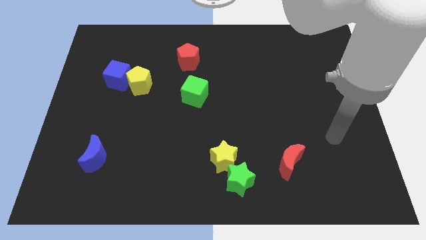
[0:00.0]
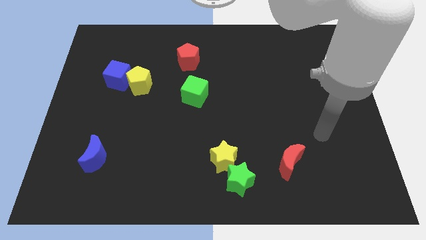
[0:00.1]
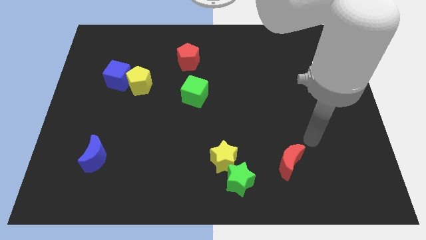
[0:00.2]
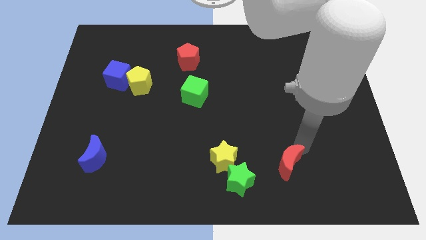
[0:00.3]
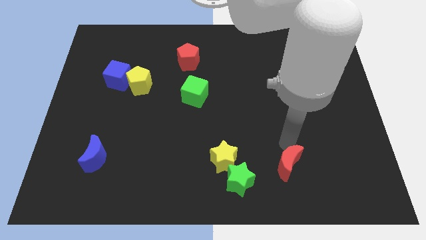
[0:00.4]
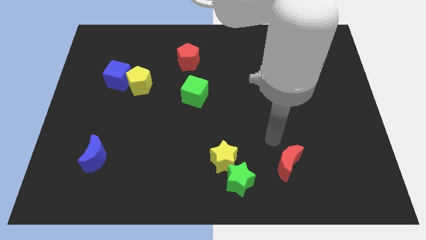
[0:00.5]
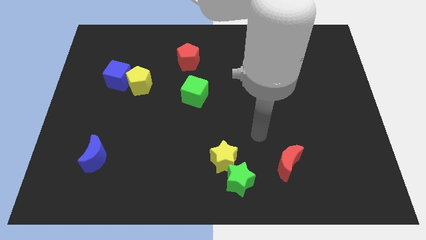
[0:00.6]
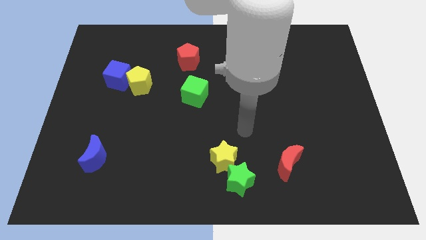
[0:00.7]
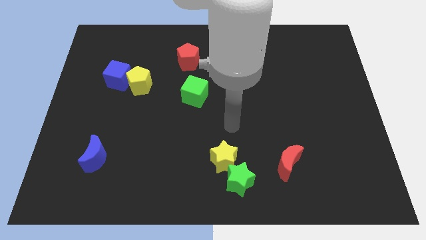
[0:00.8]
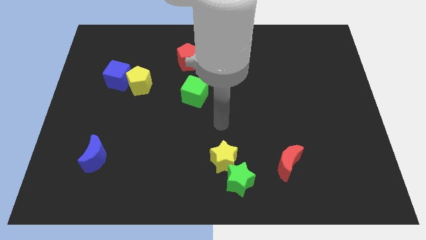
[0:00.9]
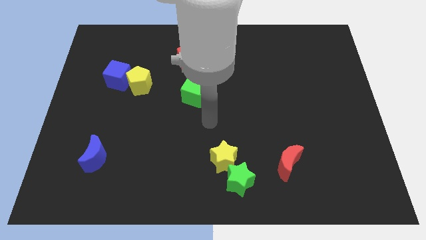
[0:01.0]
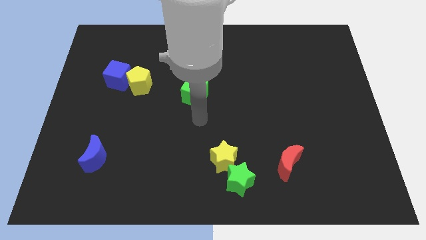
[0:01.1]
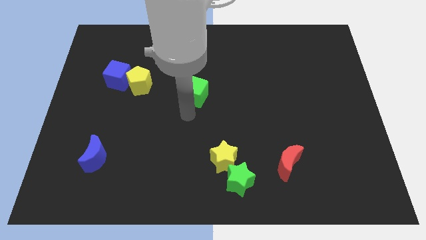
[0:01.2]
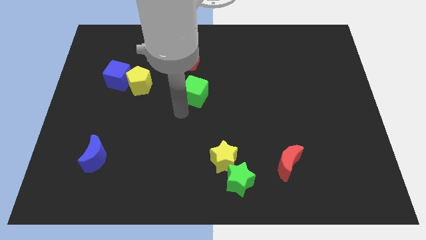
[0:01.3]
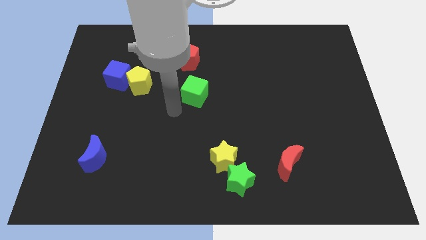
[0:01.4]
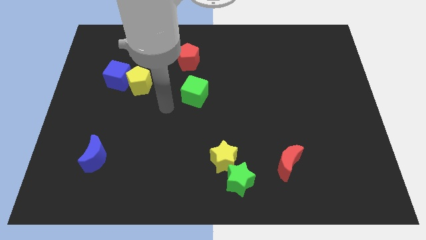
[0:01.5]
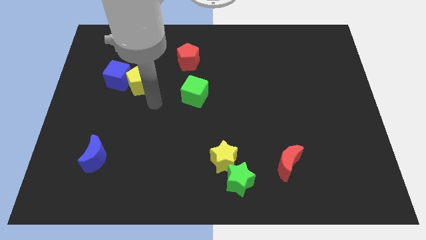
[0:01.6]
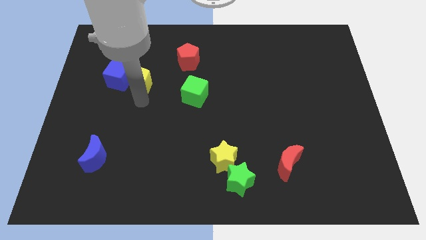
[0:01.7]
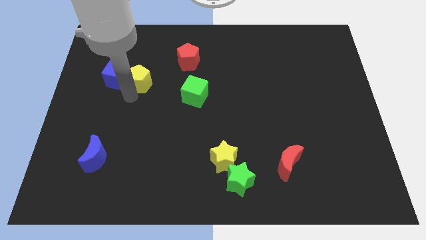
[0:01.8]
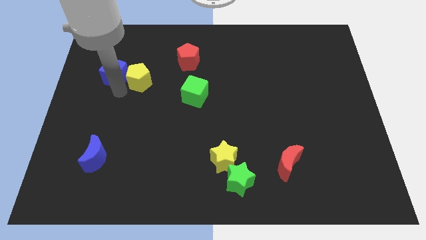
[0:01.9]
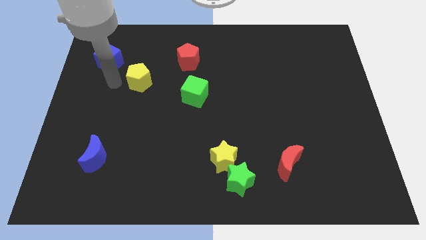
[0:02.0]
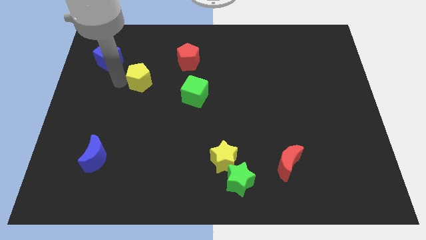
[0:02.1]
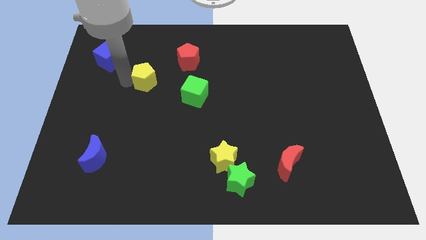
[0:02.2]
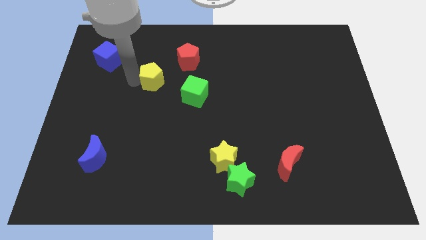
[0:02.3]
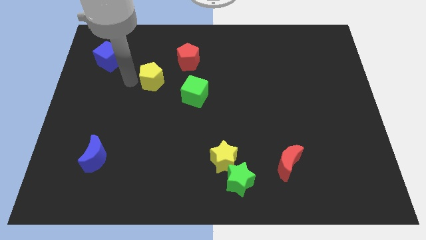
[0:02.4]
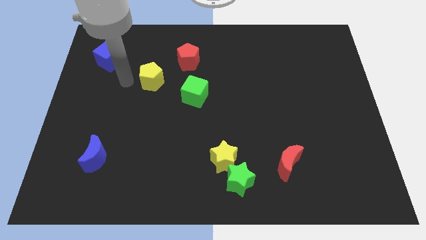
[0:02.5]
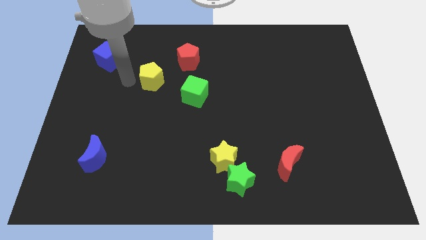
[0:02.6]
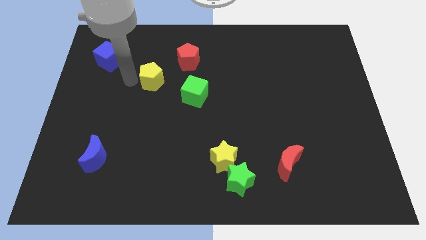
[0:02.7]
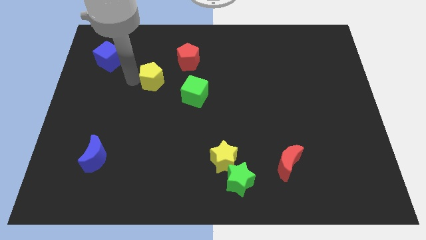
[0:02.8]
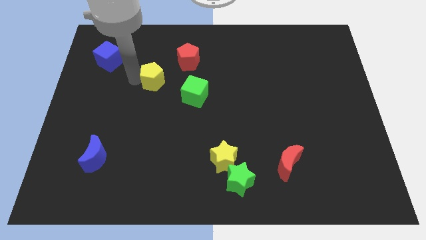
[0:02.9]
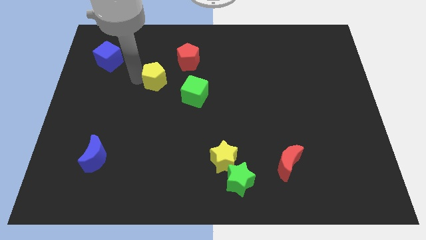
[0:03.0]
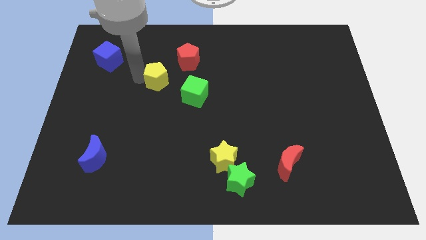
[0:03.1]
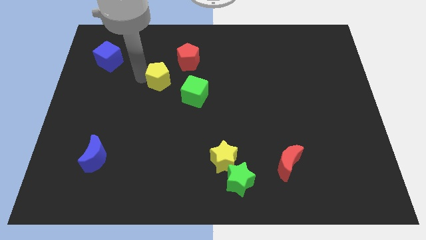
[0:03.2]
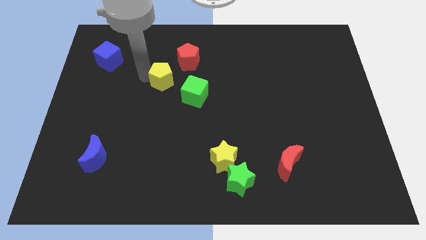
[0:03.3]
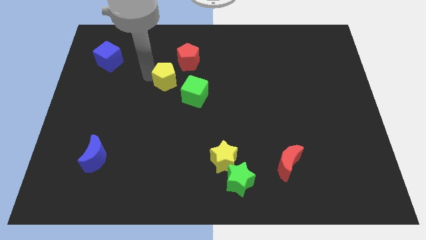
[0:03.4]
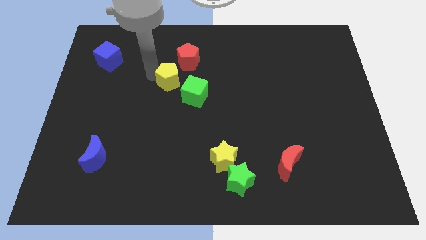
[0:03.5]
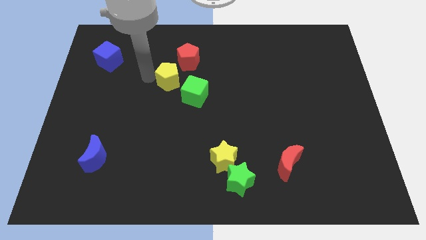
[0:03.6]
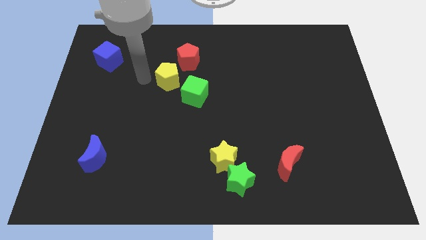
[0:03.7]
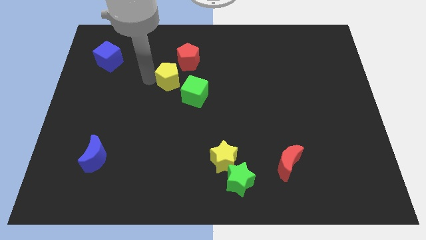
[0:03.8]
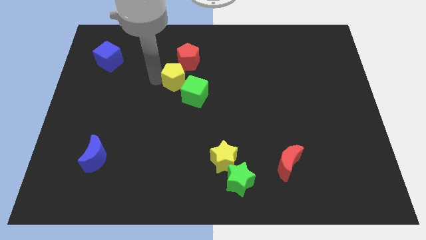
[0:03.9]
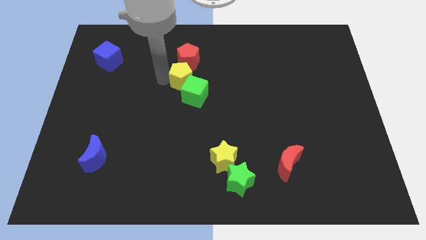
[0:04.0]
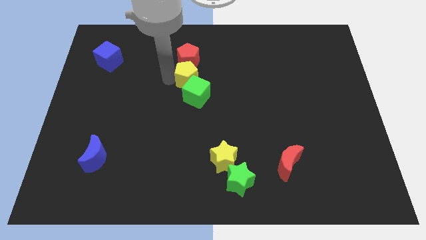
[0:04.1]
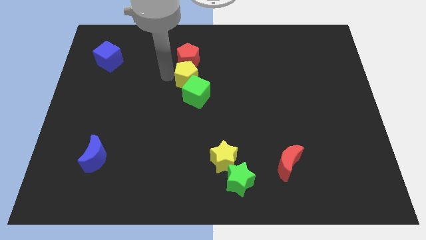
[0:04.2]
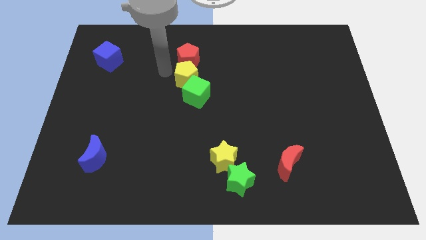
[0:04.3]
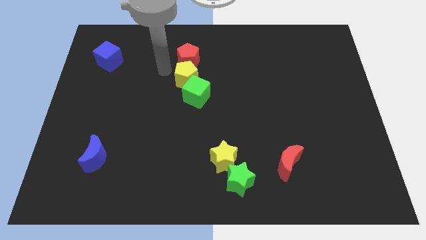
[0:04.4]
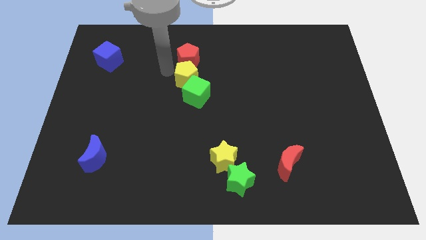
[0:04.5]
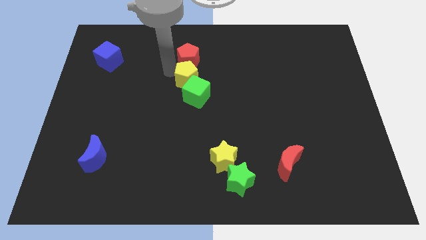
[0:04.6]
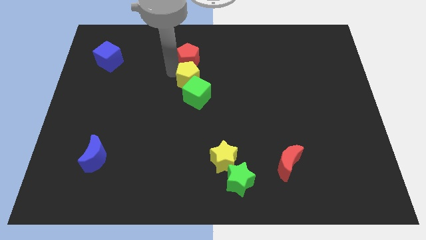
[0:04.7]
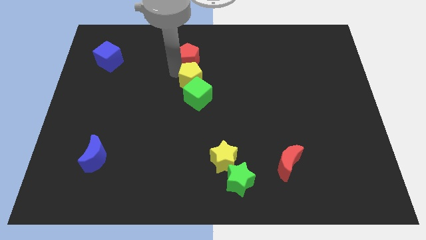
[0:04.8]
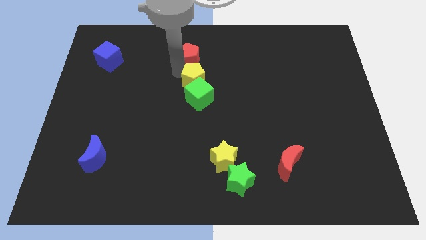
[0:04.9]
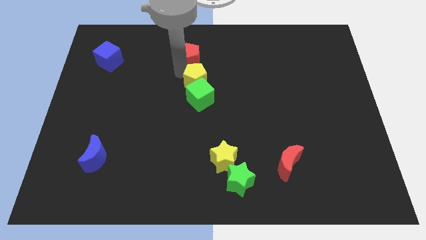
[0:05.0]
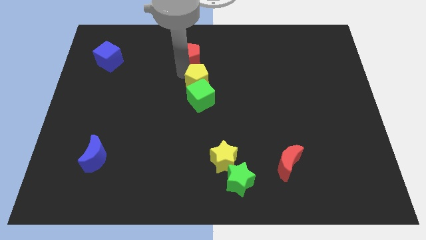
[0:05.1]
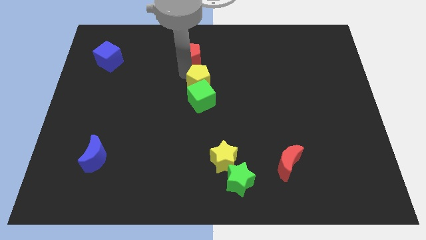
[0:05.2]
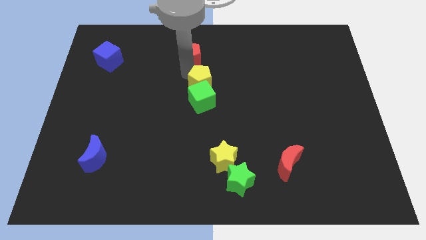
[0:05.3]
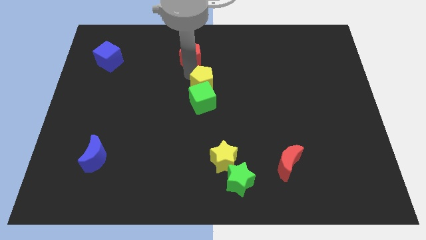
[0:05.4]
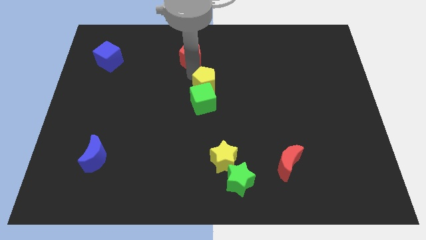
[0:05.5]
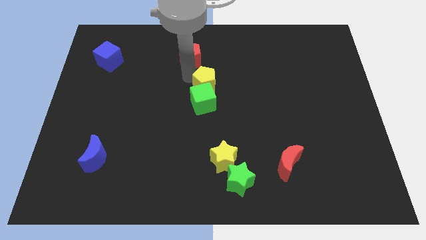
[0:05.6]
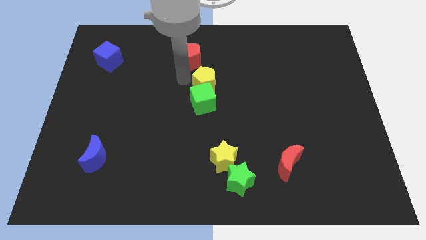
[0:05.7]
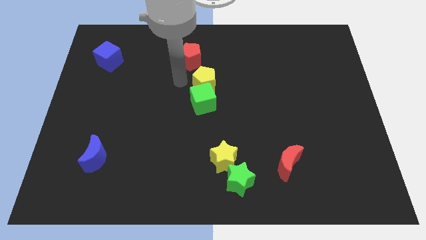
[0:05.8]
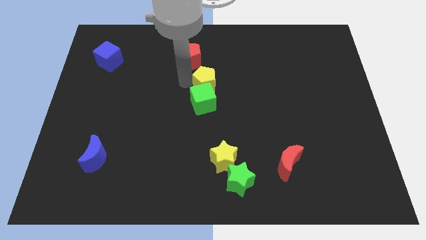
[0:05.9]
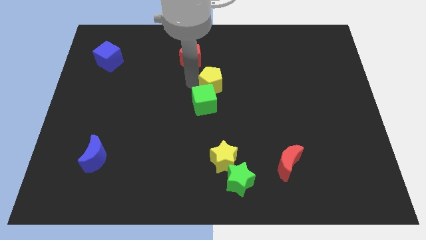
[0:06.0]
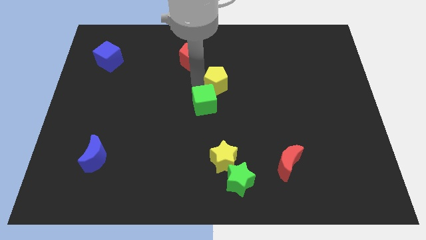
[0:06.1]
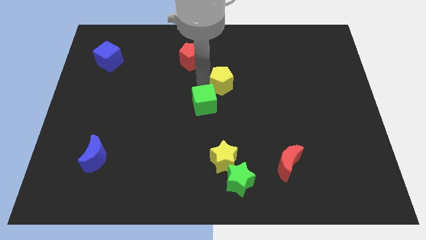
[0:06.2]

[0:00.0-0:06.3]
move the yellow pentagon to the right

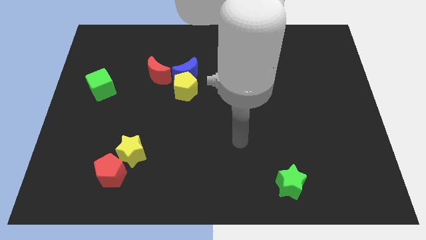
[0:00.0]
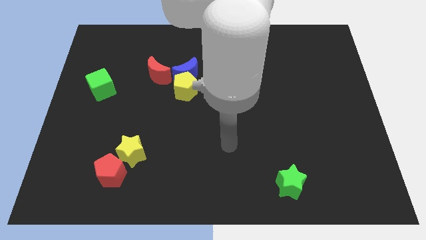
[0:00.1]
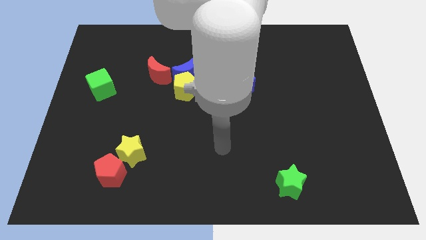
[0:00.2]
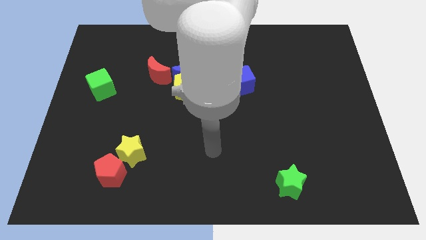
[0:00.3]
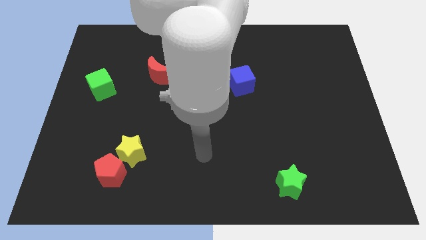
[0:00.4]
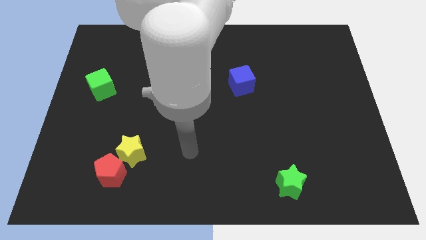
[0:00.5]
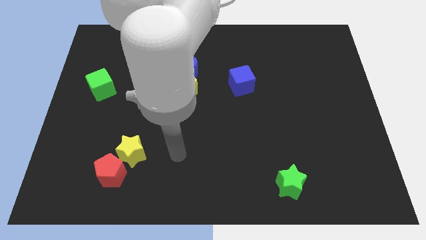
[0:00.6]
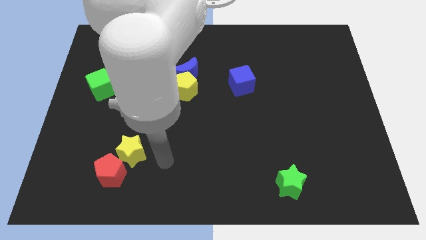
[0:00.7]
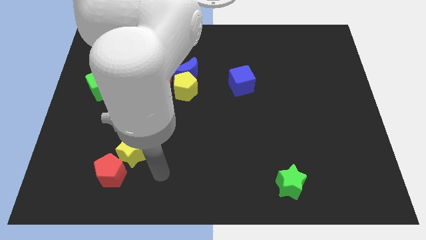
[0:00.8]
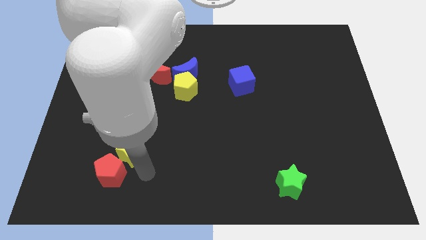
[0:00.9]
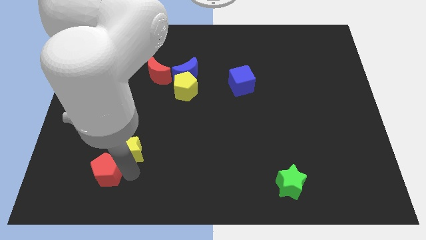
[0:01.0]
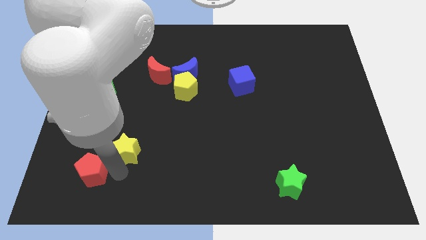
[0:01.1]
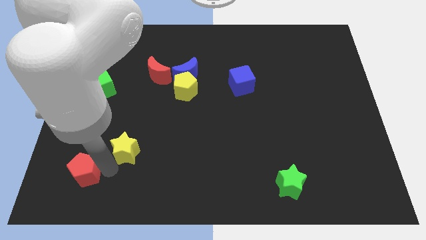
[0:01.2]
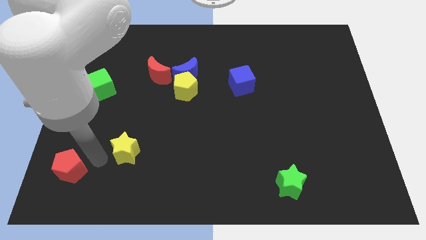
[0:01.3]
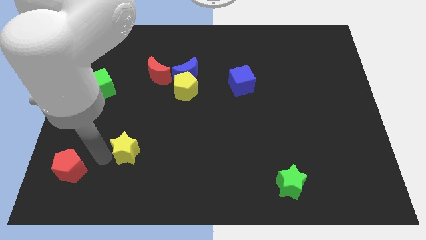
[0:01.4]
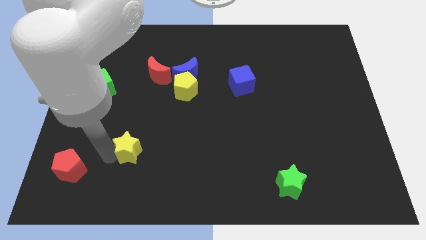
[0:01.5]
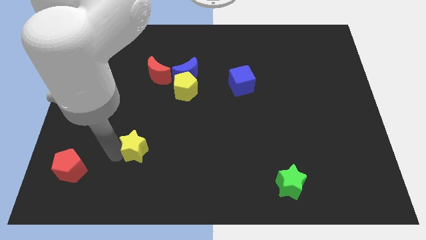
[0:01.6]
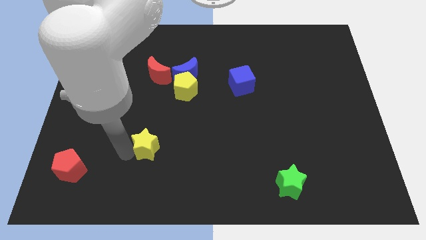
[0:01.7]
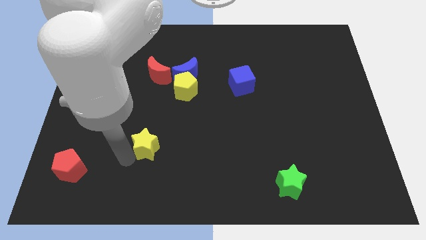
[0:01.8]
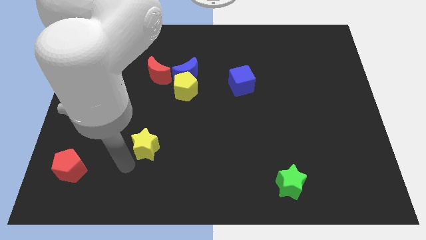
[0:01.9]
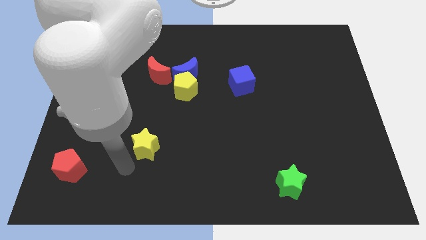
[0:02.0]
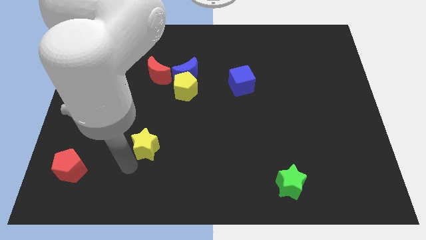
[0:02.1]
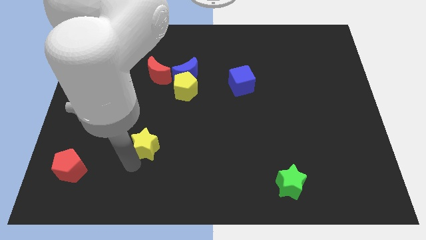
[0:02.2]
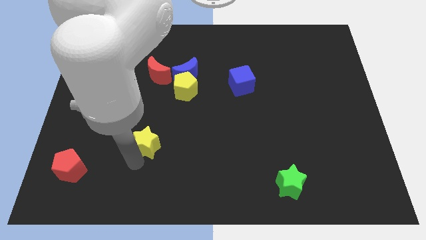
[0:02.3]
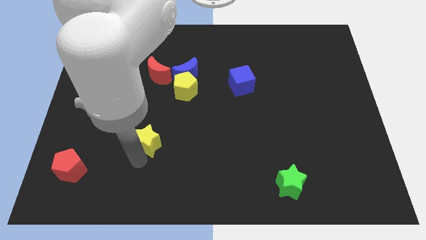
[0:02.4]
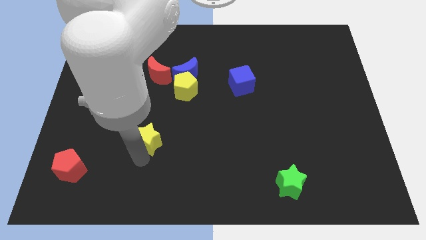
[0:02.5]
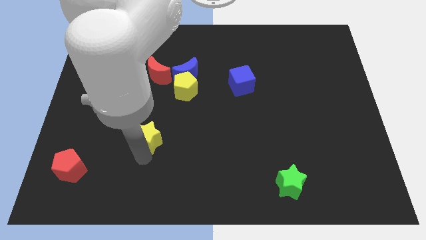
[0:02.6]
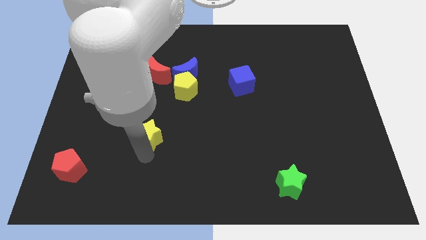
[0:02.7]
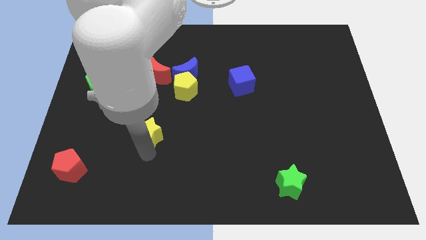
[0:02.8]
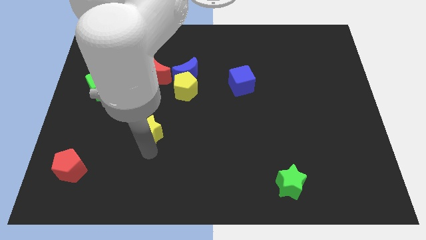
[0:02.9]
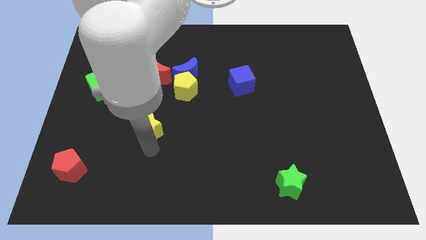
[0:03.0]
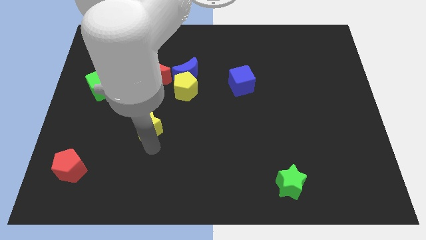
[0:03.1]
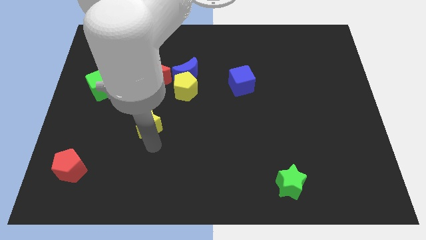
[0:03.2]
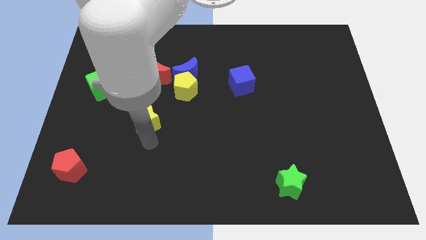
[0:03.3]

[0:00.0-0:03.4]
slide the yellow star upwards and to the right diagonally a bit
